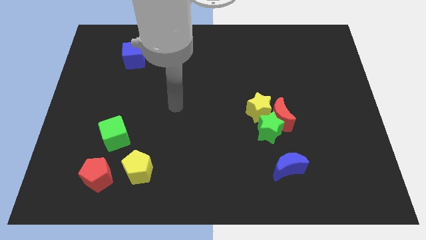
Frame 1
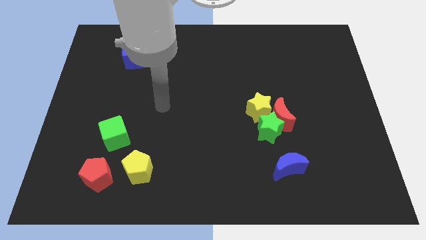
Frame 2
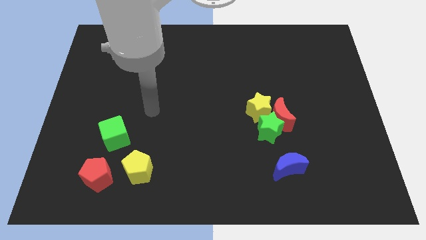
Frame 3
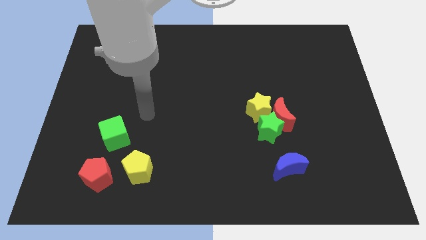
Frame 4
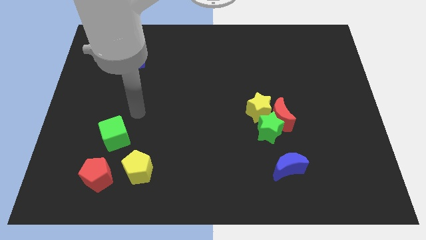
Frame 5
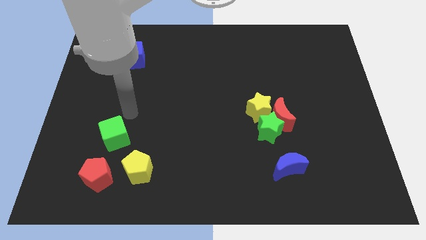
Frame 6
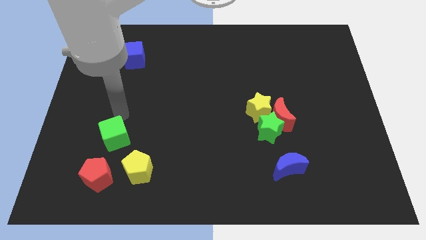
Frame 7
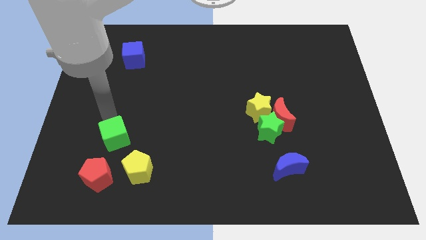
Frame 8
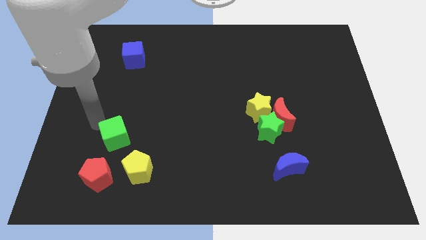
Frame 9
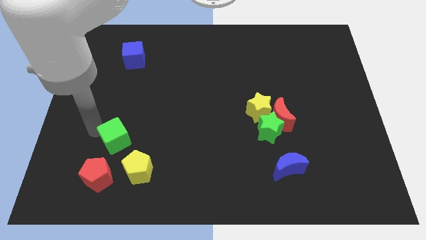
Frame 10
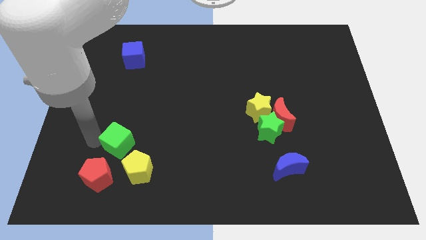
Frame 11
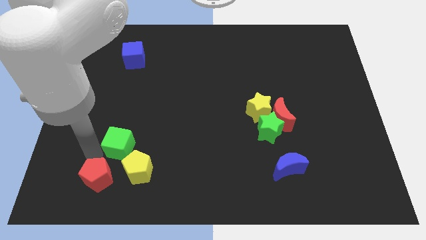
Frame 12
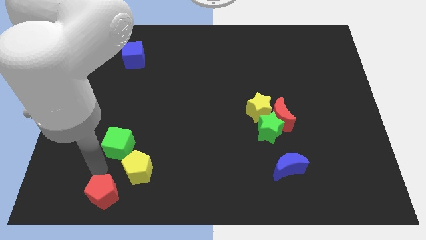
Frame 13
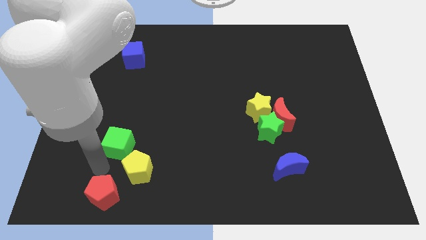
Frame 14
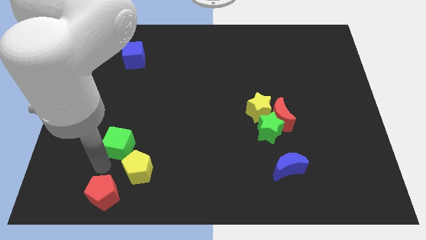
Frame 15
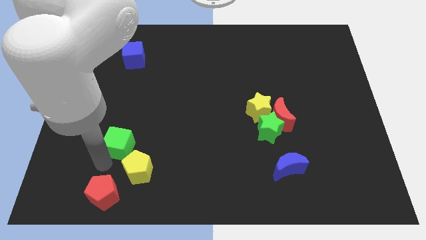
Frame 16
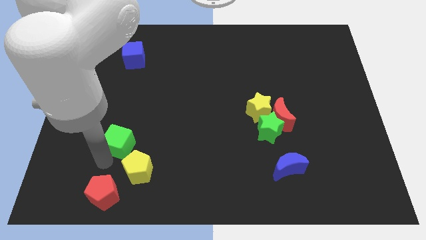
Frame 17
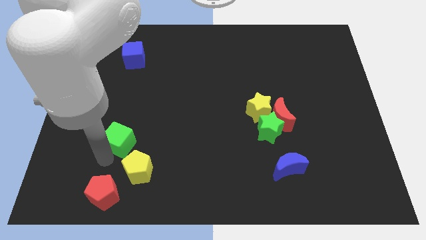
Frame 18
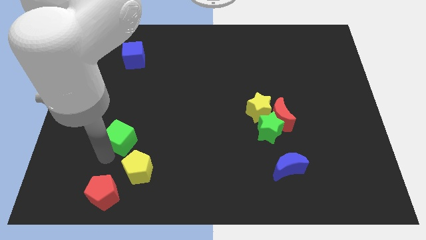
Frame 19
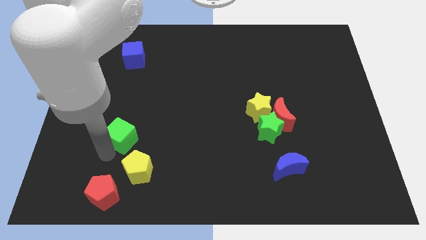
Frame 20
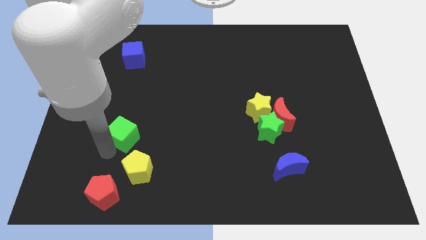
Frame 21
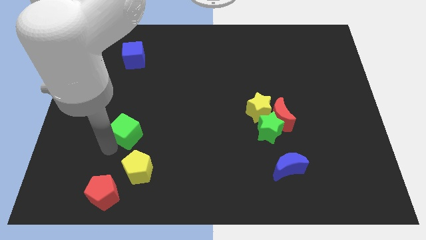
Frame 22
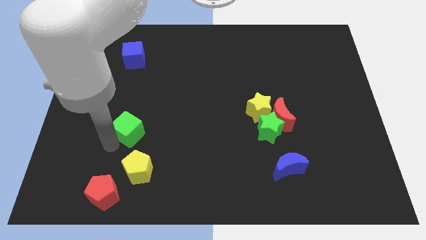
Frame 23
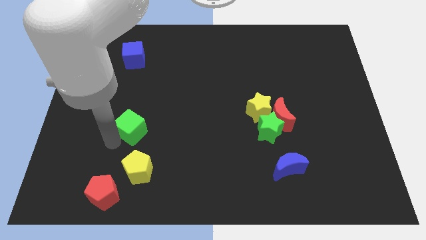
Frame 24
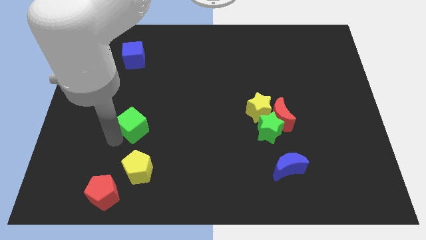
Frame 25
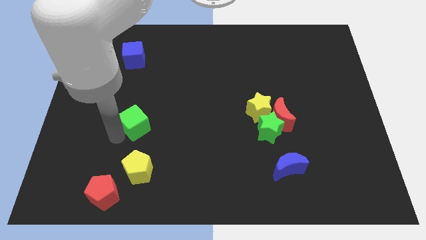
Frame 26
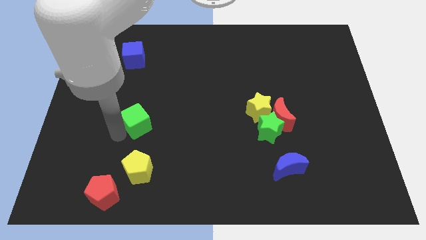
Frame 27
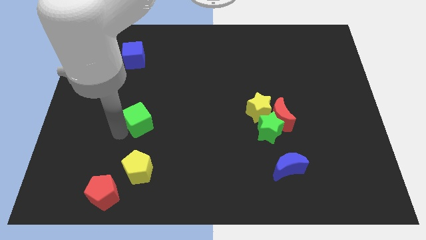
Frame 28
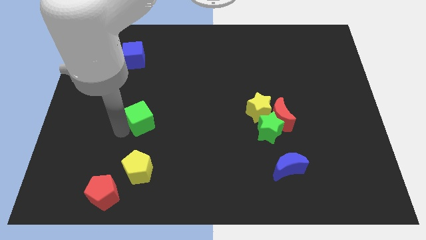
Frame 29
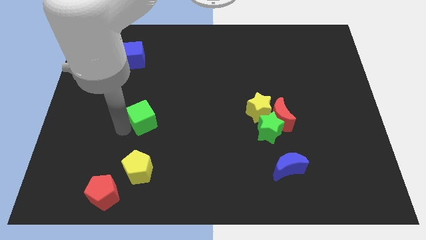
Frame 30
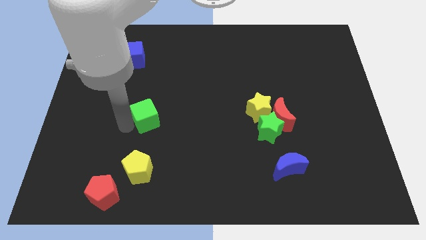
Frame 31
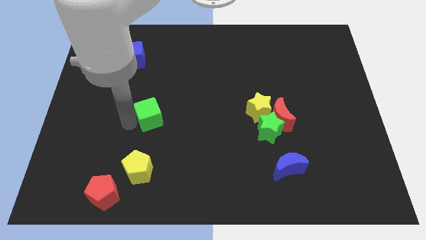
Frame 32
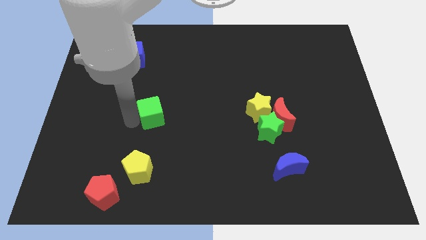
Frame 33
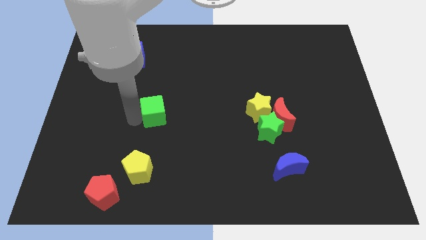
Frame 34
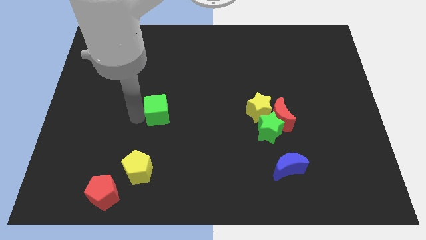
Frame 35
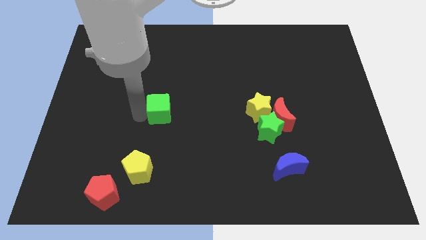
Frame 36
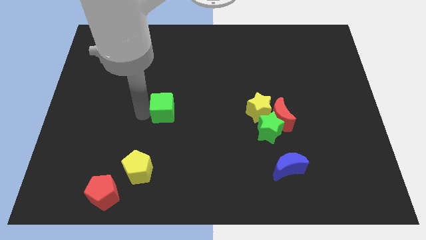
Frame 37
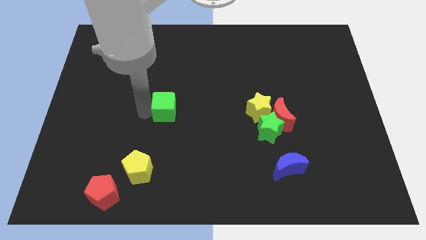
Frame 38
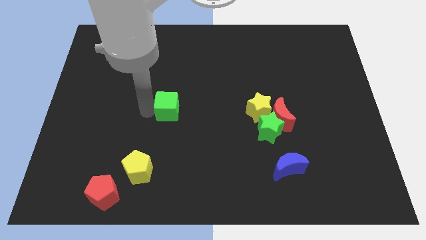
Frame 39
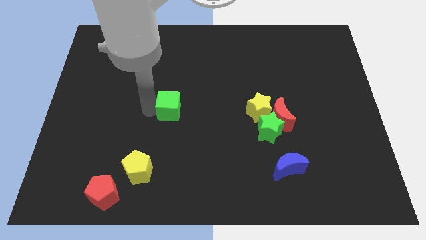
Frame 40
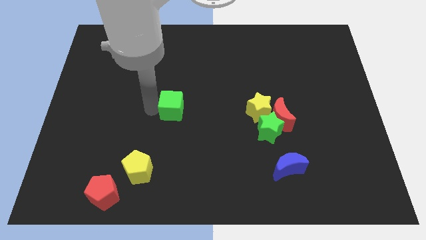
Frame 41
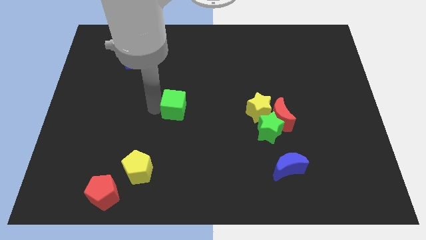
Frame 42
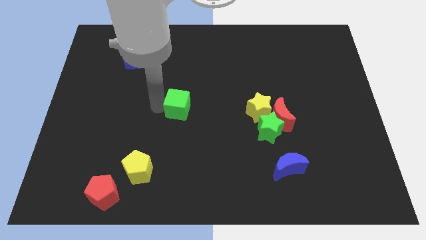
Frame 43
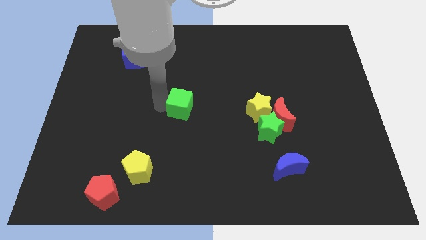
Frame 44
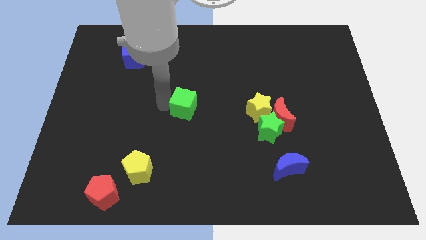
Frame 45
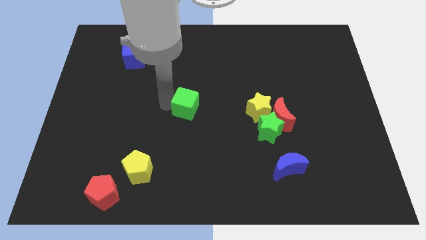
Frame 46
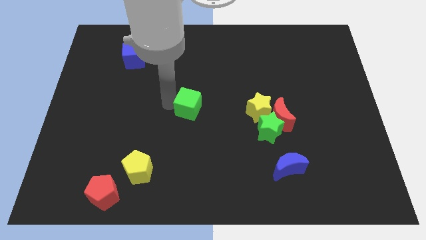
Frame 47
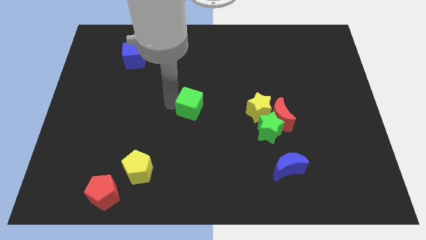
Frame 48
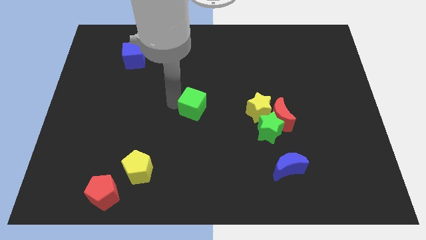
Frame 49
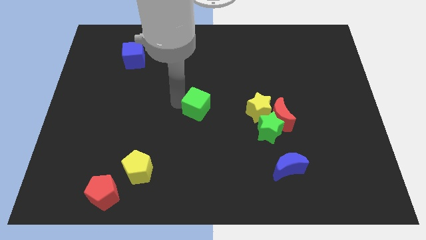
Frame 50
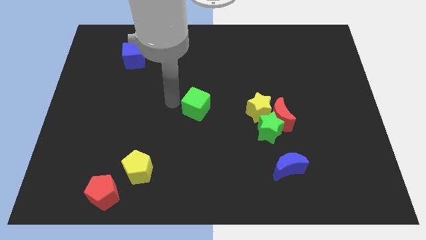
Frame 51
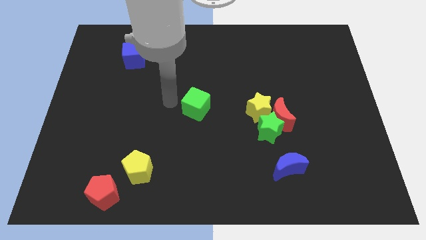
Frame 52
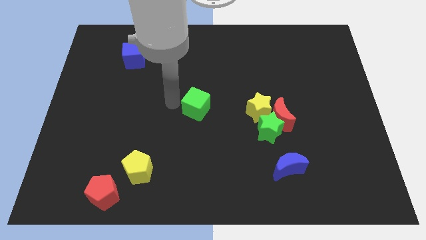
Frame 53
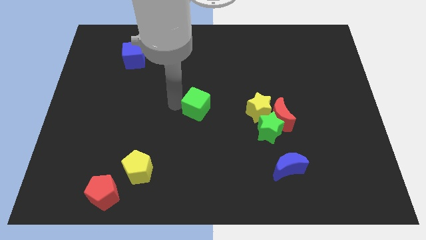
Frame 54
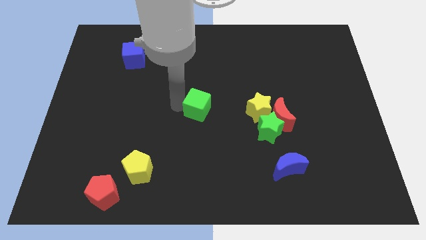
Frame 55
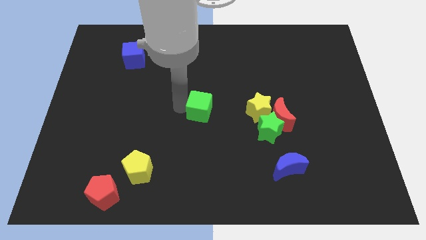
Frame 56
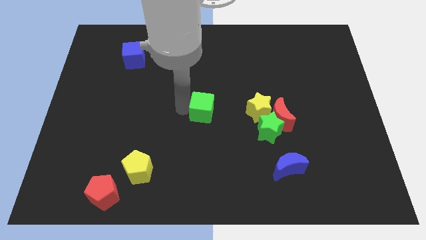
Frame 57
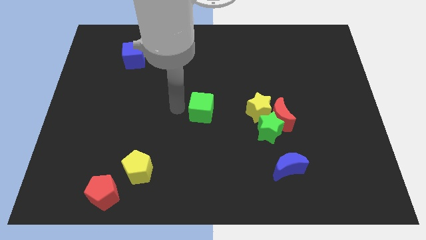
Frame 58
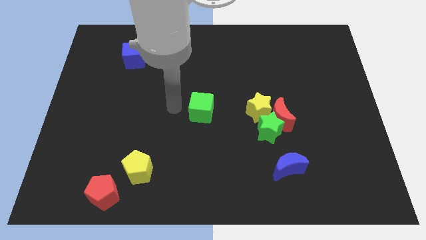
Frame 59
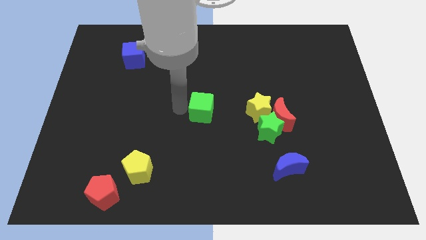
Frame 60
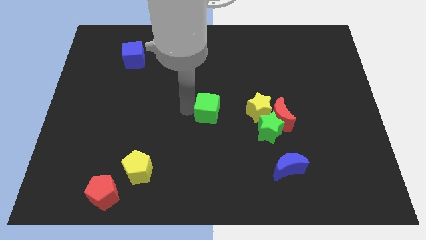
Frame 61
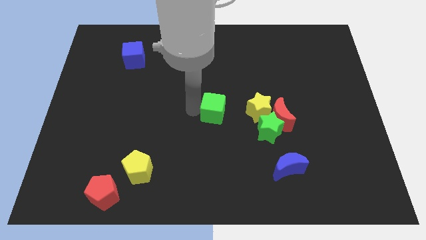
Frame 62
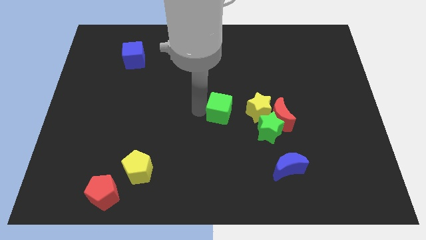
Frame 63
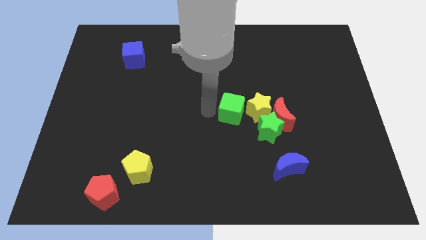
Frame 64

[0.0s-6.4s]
slide the green cube to the yellow star

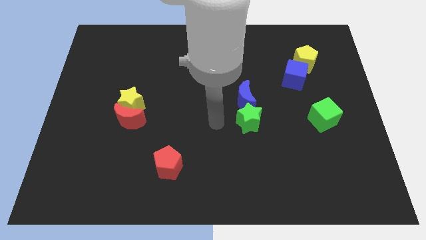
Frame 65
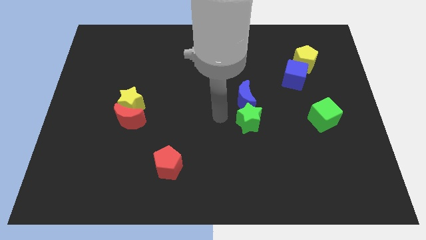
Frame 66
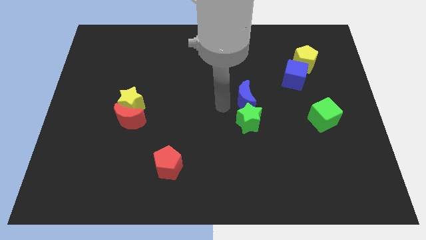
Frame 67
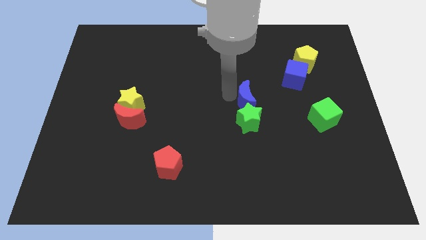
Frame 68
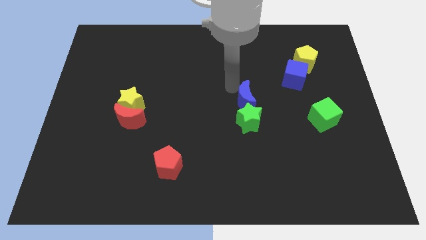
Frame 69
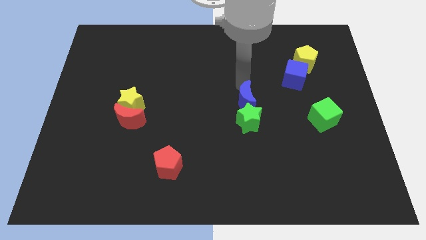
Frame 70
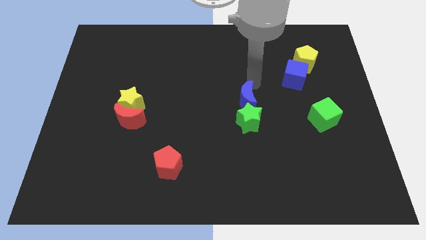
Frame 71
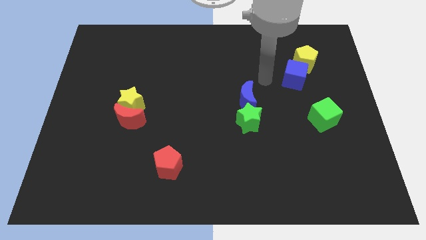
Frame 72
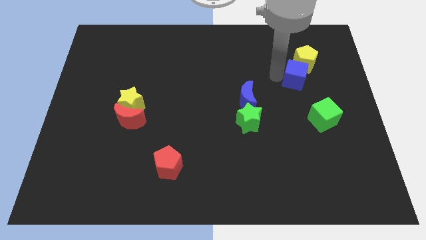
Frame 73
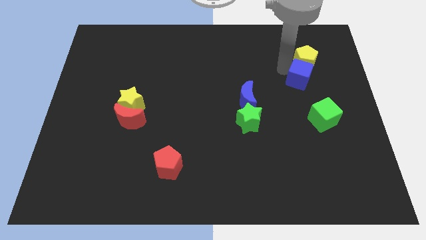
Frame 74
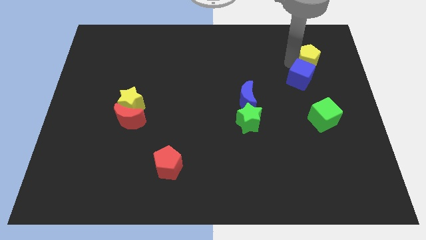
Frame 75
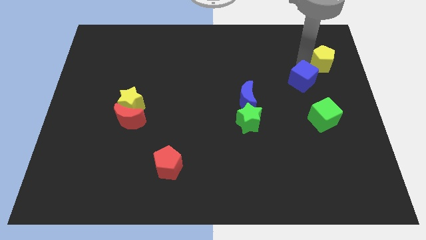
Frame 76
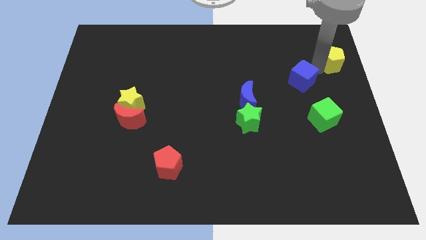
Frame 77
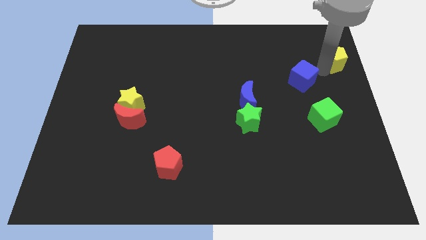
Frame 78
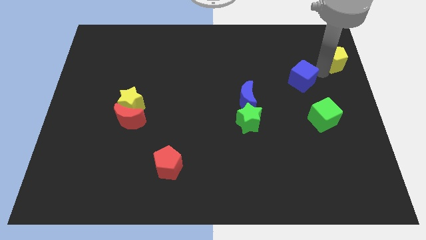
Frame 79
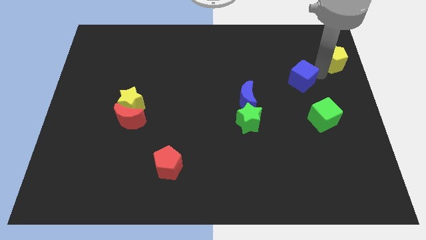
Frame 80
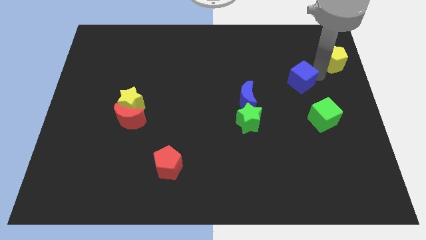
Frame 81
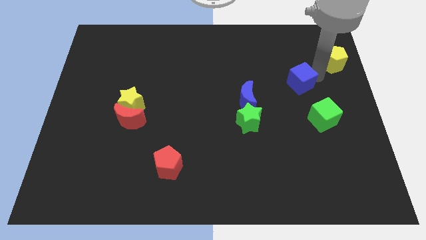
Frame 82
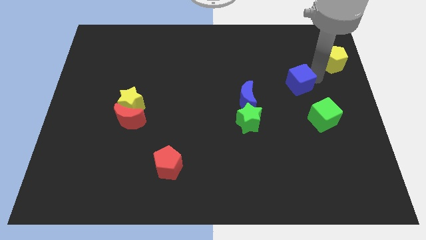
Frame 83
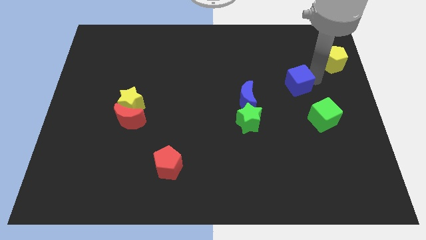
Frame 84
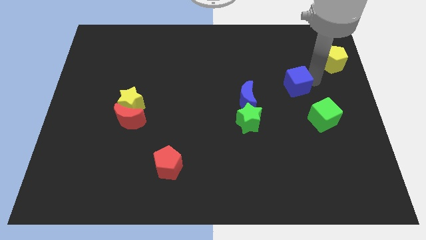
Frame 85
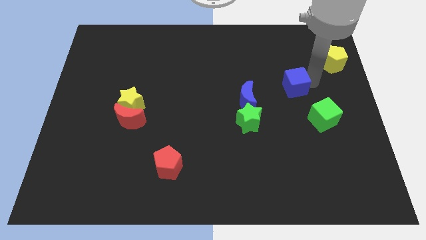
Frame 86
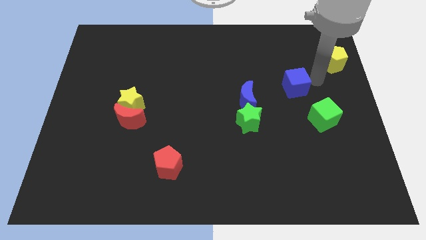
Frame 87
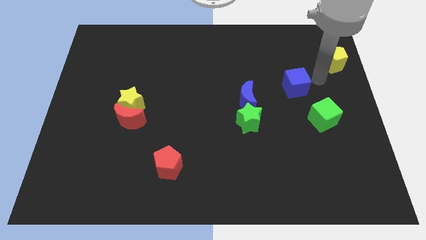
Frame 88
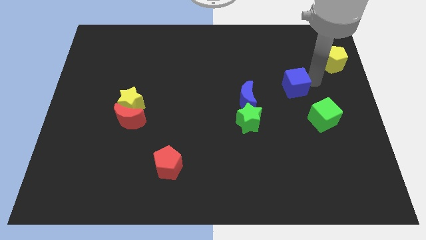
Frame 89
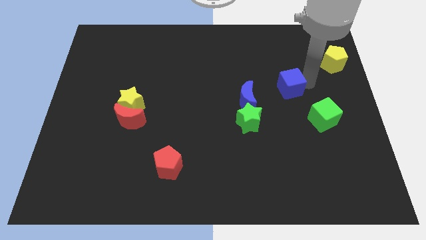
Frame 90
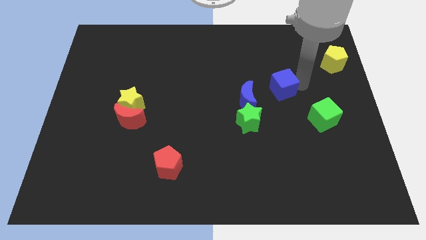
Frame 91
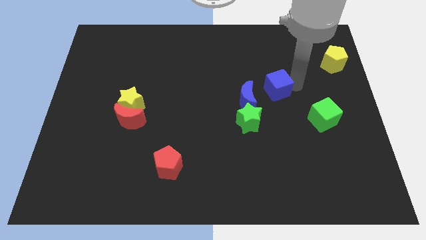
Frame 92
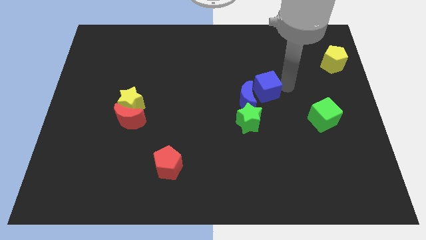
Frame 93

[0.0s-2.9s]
move the blue cube next to the blue moon
